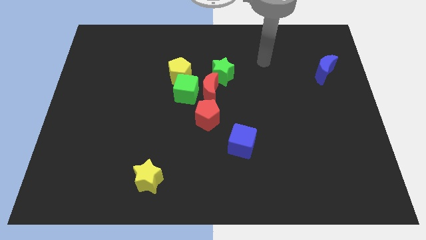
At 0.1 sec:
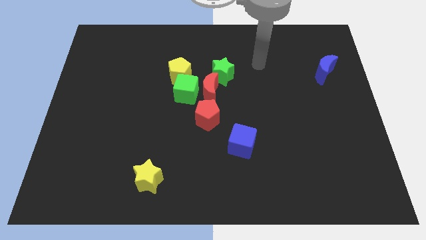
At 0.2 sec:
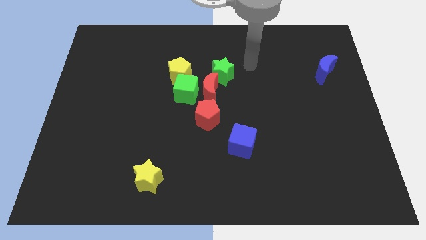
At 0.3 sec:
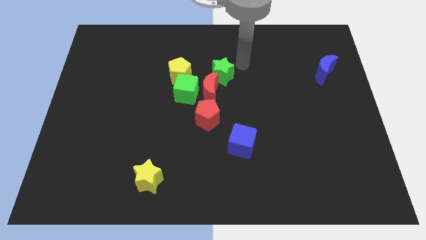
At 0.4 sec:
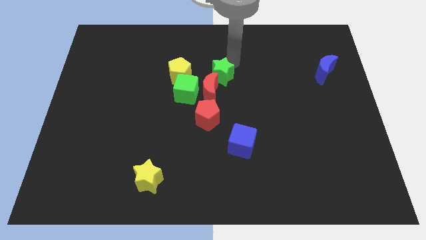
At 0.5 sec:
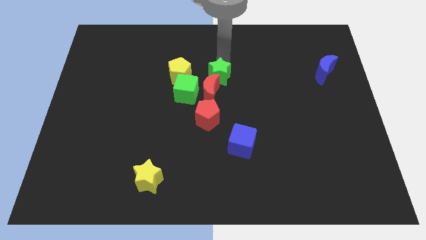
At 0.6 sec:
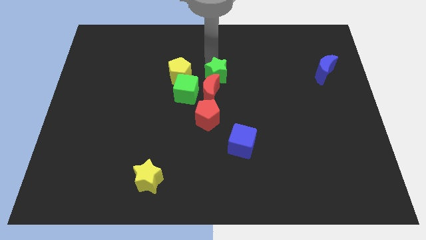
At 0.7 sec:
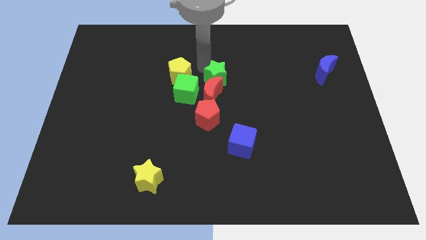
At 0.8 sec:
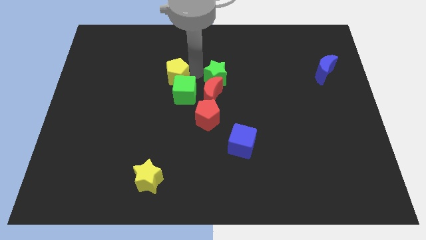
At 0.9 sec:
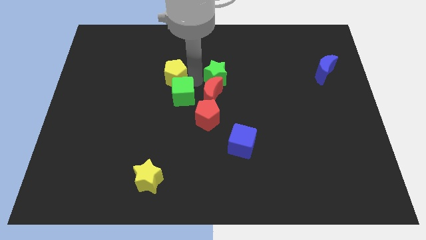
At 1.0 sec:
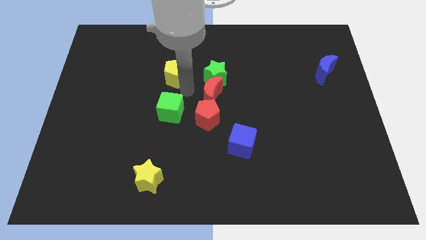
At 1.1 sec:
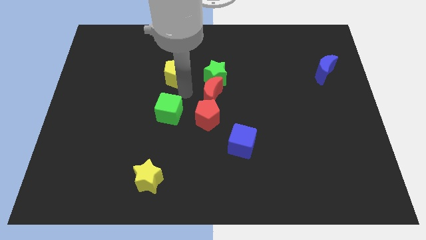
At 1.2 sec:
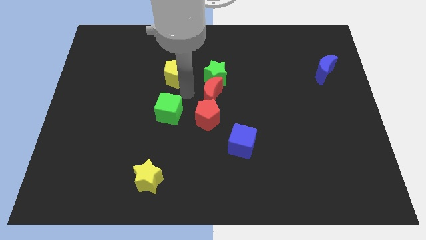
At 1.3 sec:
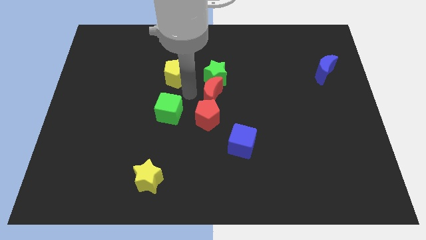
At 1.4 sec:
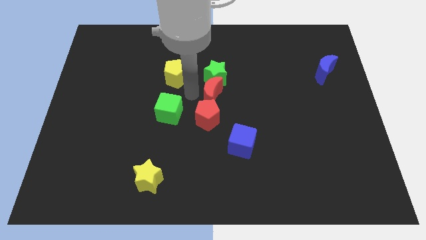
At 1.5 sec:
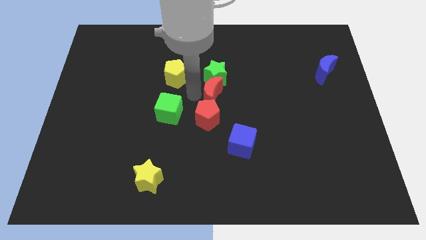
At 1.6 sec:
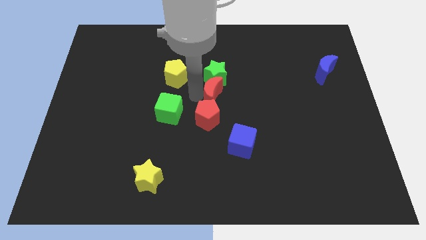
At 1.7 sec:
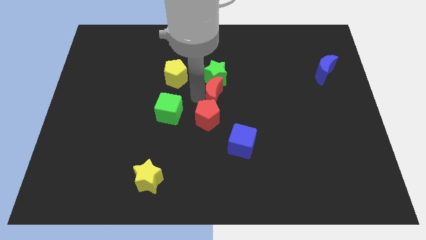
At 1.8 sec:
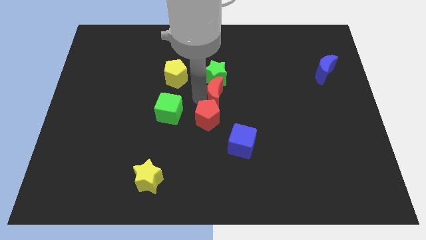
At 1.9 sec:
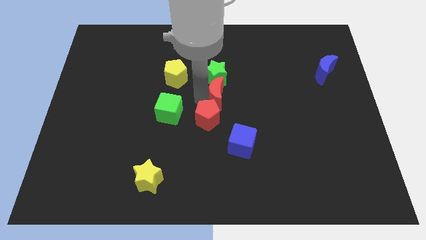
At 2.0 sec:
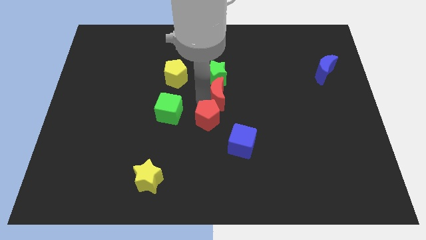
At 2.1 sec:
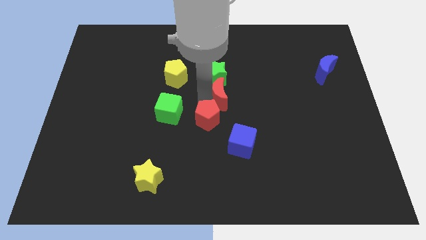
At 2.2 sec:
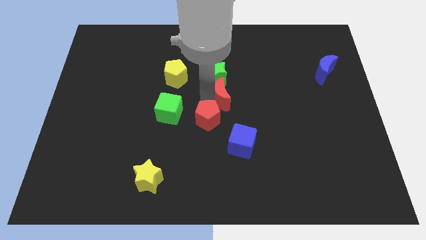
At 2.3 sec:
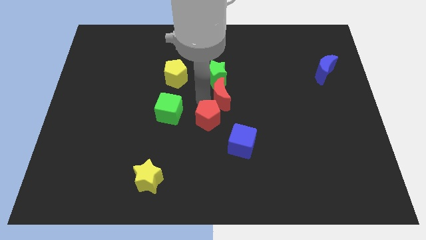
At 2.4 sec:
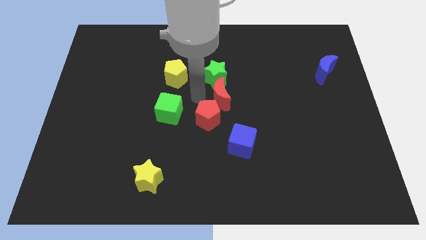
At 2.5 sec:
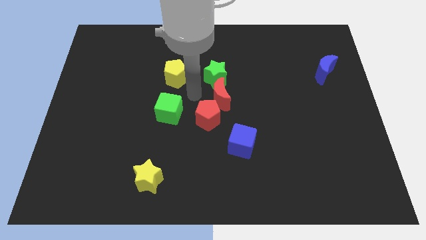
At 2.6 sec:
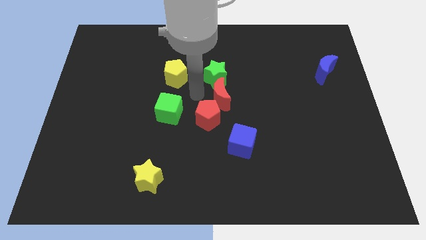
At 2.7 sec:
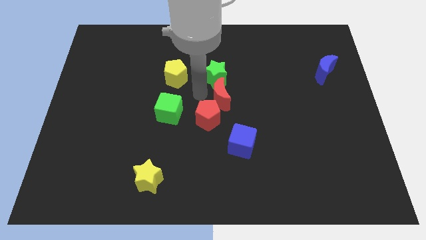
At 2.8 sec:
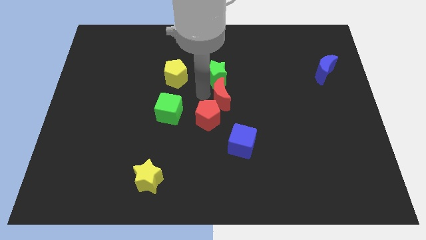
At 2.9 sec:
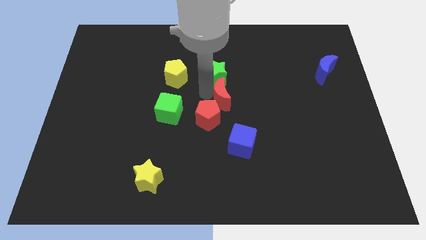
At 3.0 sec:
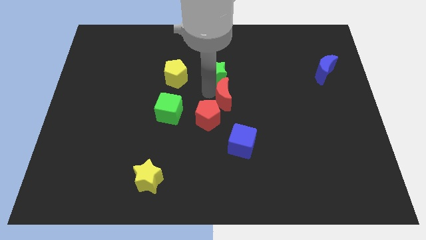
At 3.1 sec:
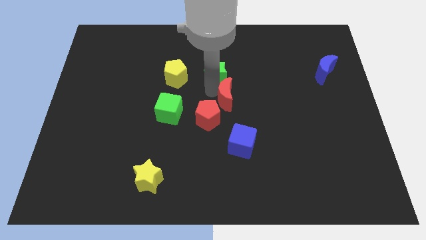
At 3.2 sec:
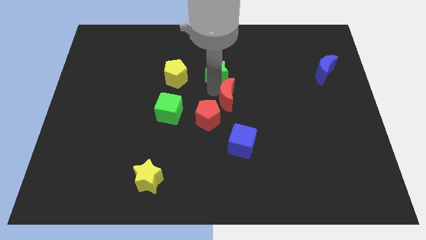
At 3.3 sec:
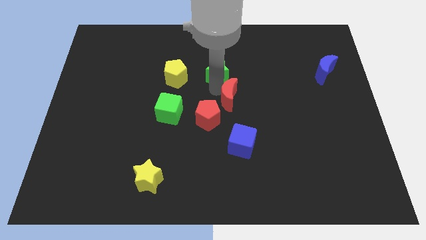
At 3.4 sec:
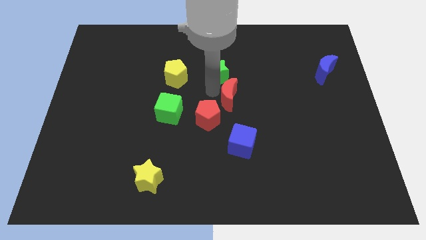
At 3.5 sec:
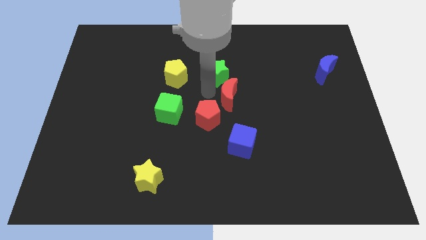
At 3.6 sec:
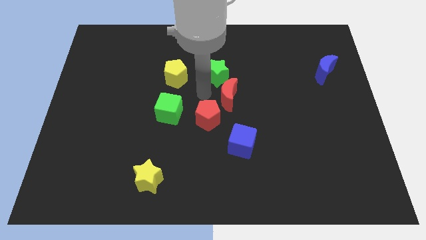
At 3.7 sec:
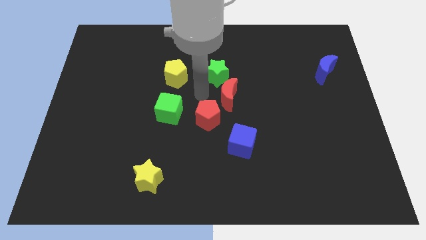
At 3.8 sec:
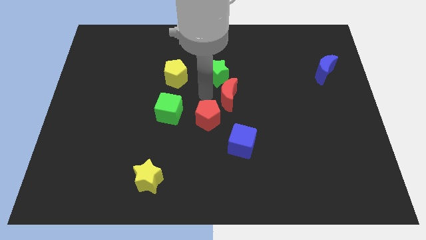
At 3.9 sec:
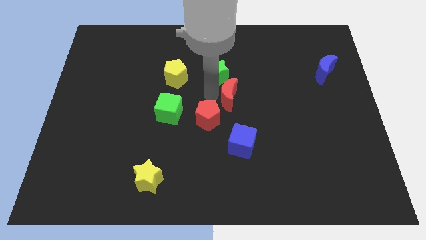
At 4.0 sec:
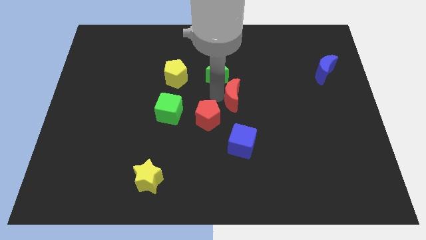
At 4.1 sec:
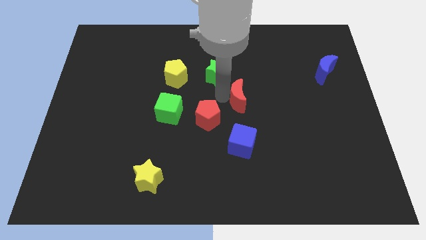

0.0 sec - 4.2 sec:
move the red moon away from the group

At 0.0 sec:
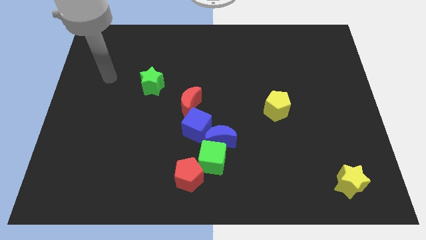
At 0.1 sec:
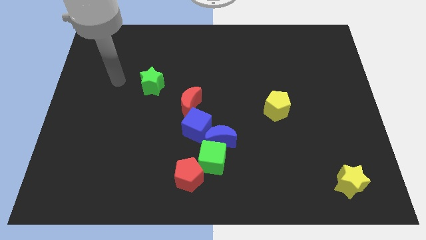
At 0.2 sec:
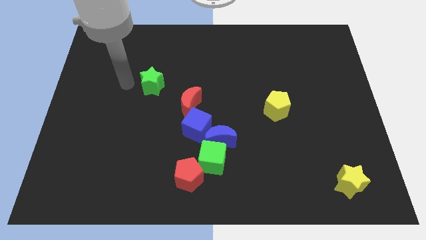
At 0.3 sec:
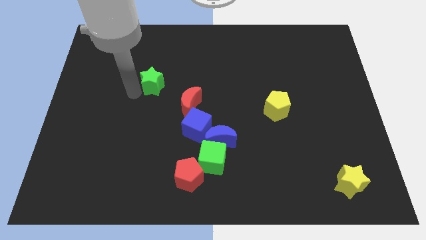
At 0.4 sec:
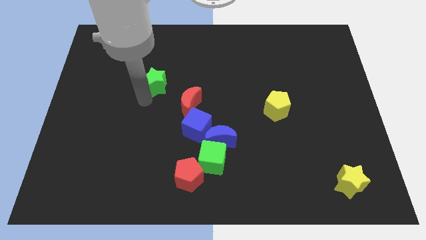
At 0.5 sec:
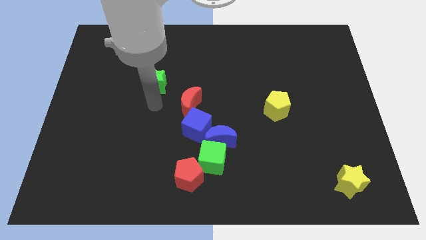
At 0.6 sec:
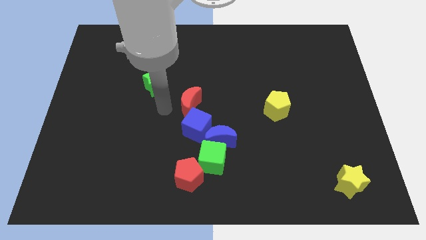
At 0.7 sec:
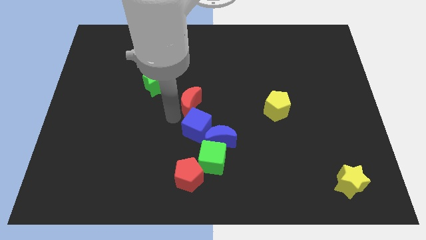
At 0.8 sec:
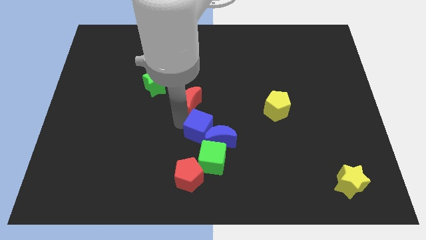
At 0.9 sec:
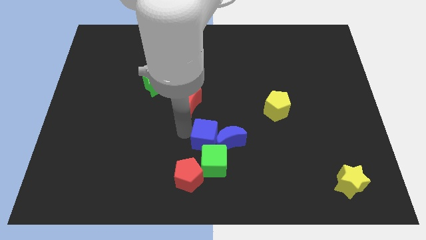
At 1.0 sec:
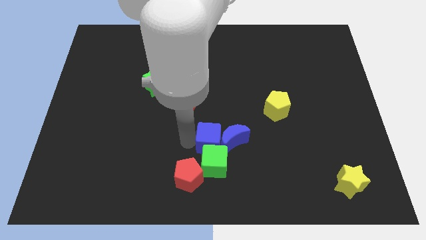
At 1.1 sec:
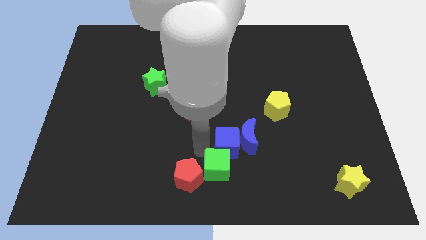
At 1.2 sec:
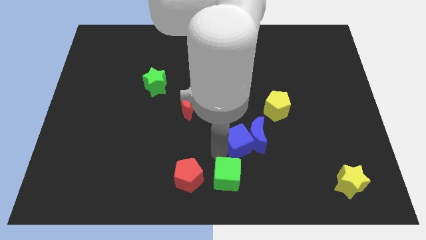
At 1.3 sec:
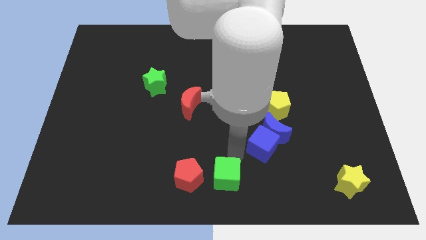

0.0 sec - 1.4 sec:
move the blue moon away from the green cube and blue cube

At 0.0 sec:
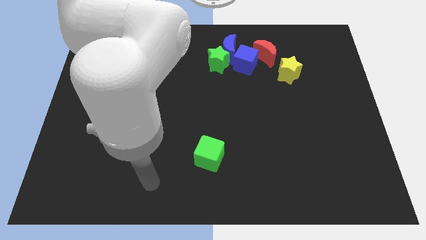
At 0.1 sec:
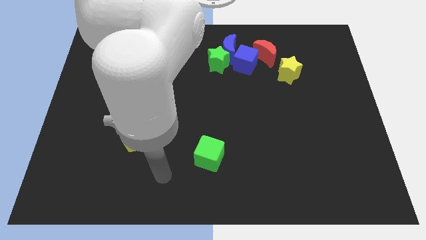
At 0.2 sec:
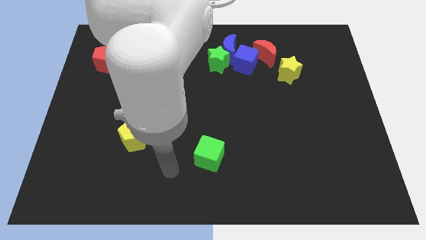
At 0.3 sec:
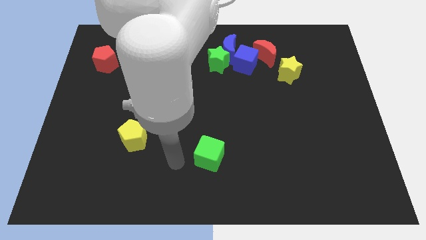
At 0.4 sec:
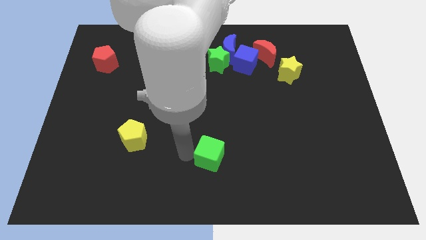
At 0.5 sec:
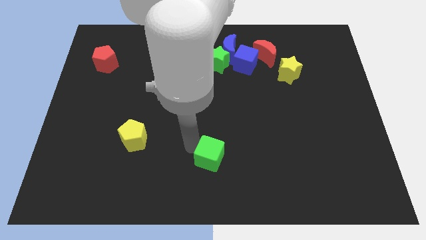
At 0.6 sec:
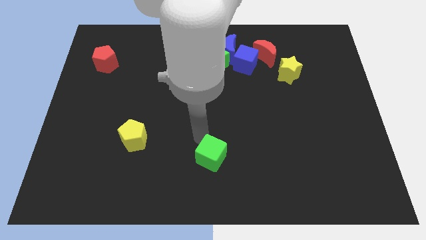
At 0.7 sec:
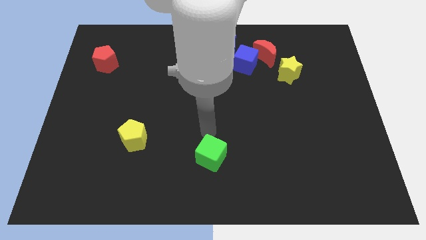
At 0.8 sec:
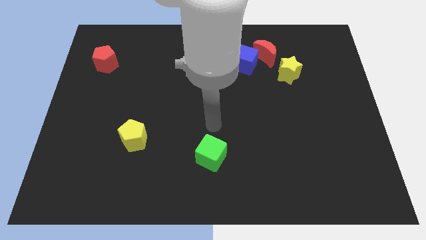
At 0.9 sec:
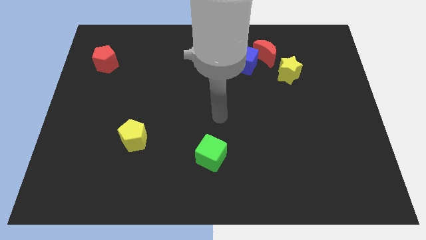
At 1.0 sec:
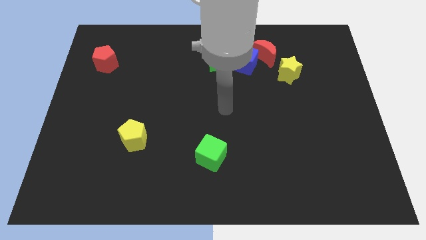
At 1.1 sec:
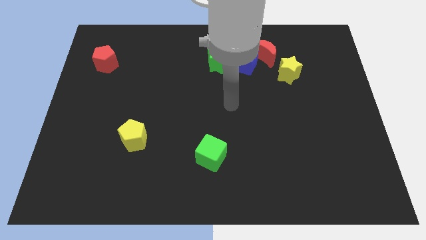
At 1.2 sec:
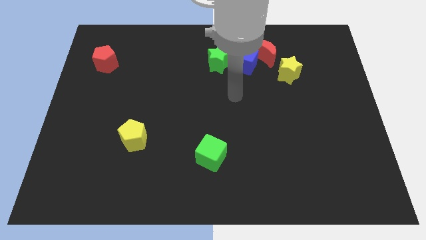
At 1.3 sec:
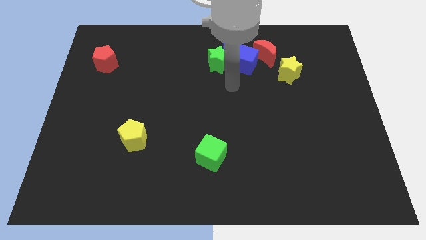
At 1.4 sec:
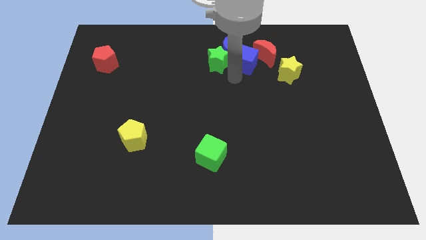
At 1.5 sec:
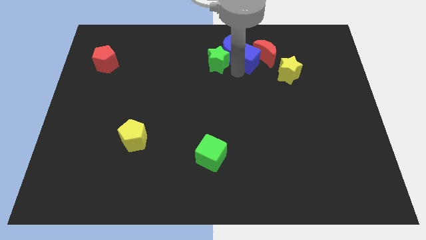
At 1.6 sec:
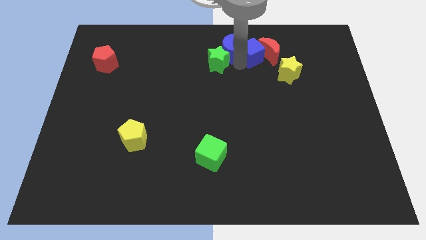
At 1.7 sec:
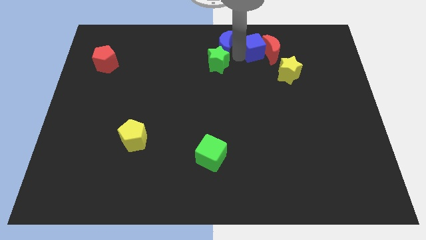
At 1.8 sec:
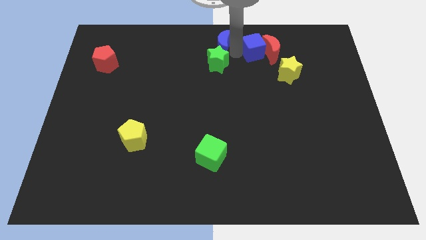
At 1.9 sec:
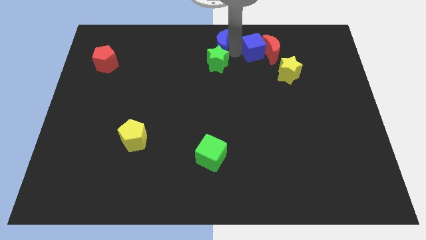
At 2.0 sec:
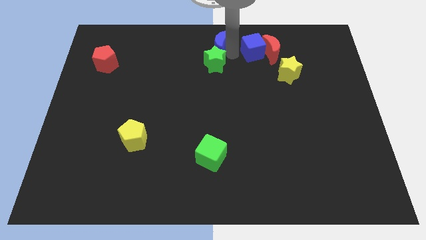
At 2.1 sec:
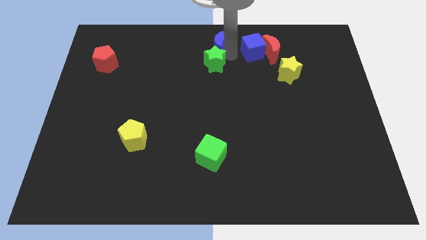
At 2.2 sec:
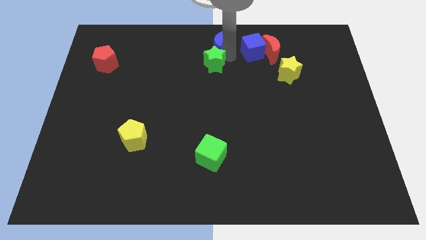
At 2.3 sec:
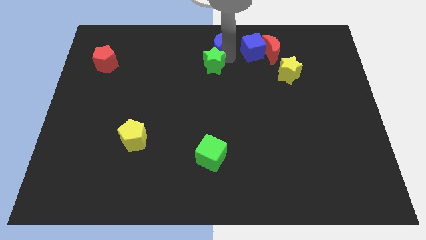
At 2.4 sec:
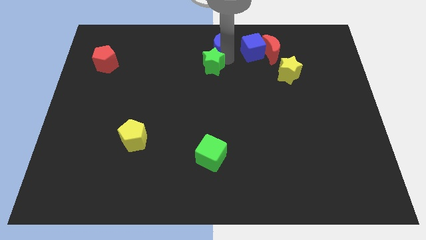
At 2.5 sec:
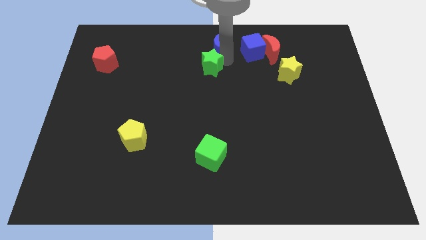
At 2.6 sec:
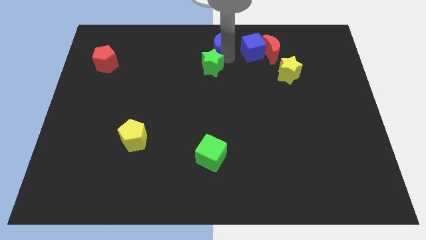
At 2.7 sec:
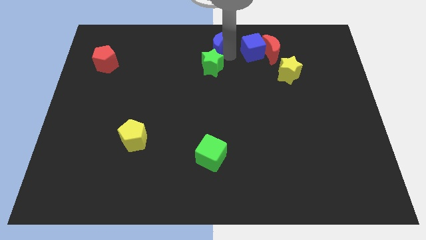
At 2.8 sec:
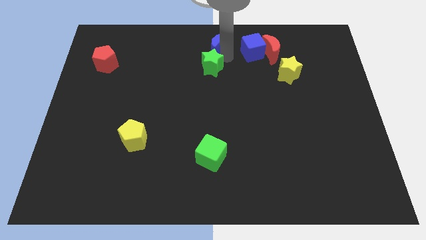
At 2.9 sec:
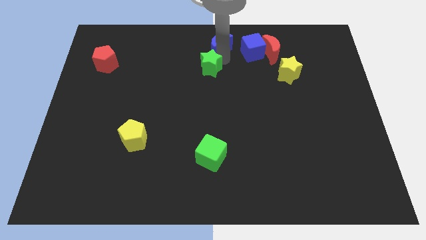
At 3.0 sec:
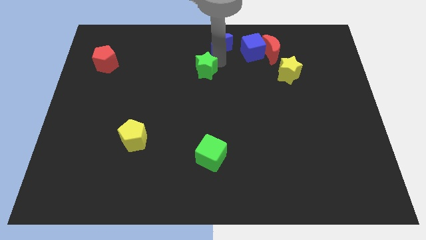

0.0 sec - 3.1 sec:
separate the green star from the blue moon and blue cube

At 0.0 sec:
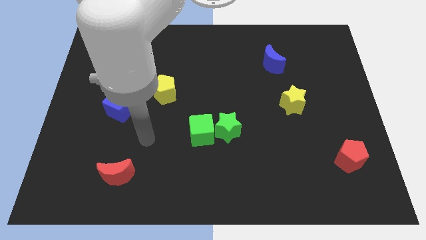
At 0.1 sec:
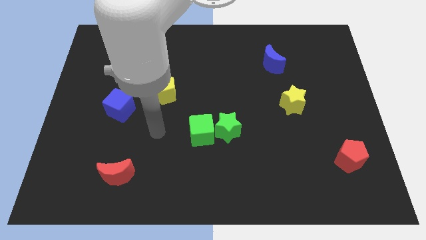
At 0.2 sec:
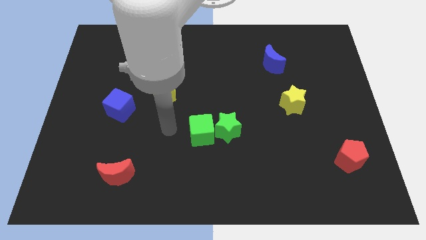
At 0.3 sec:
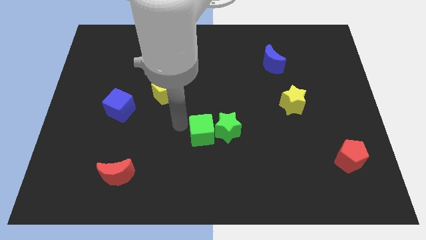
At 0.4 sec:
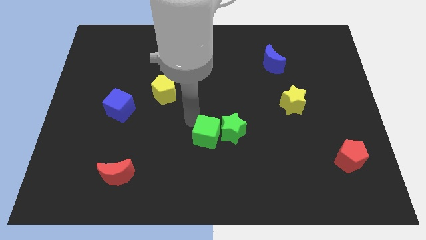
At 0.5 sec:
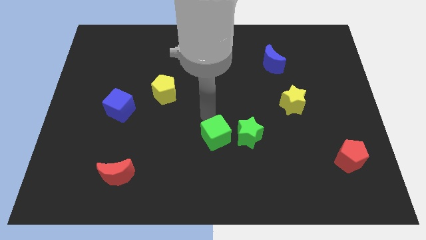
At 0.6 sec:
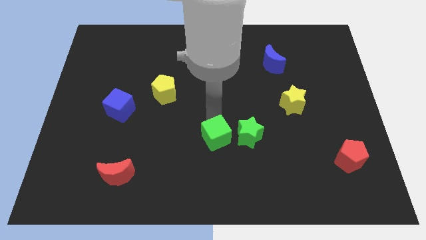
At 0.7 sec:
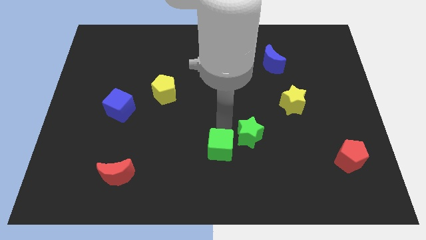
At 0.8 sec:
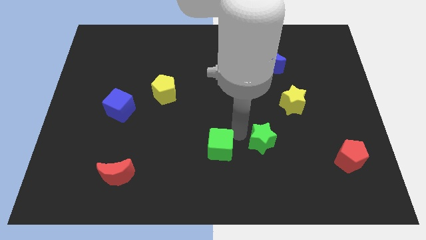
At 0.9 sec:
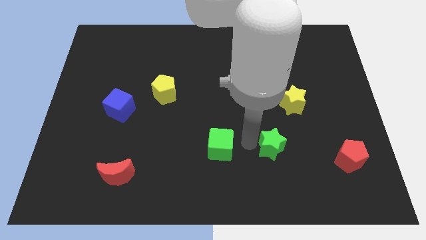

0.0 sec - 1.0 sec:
pull the green cube apart from the green star
